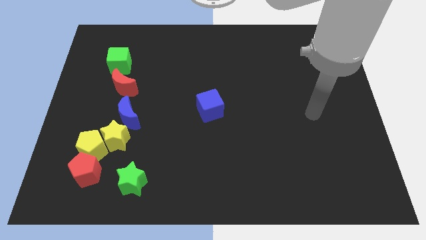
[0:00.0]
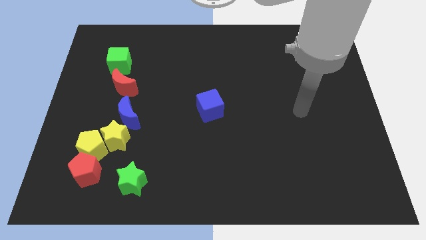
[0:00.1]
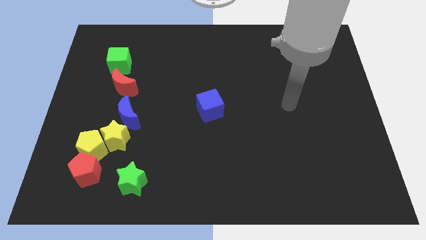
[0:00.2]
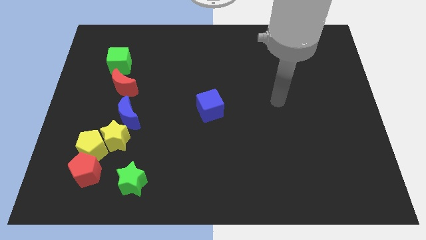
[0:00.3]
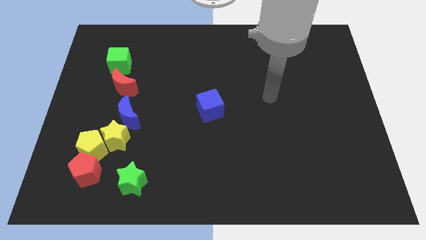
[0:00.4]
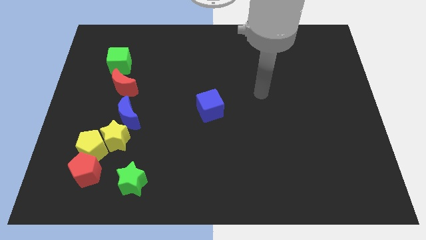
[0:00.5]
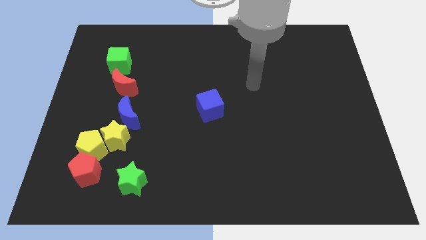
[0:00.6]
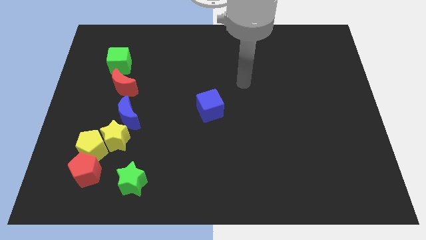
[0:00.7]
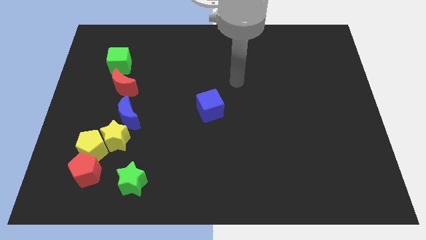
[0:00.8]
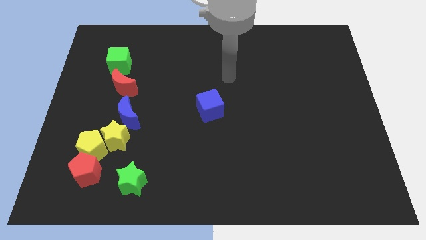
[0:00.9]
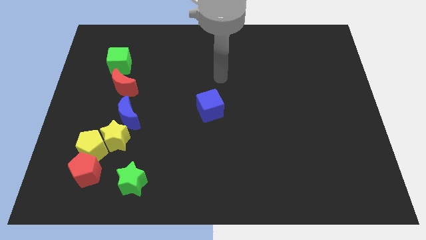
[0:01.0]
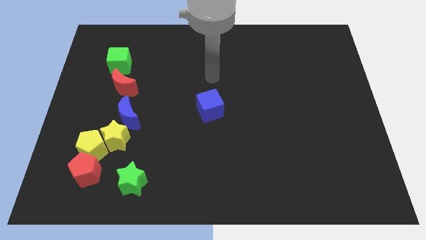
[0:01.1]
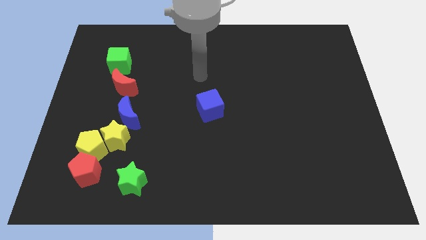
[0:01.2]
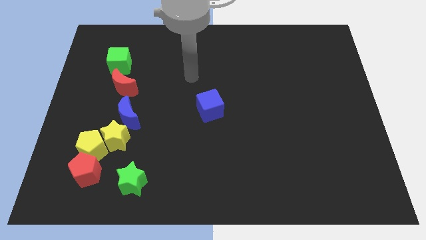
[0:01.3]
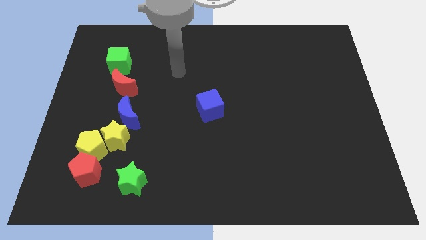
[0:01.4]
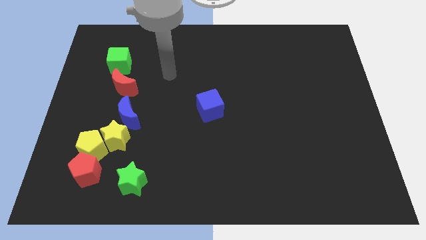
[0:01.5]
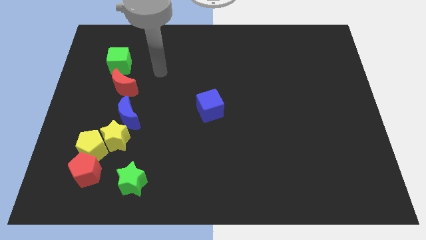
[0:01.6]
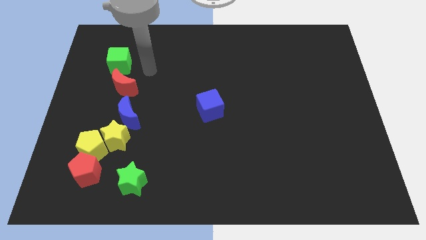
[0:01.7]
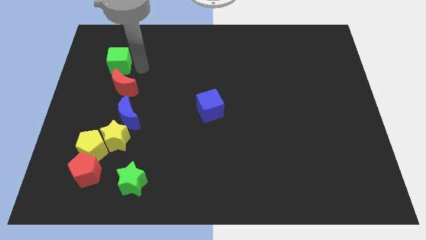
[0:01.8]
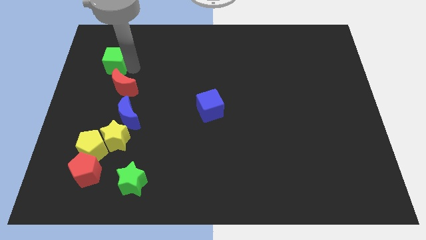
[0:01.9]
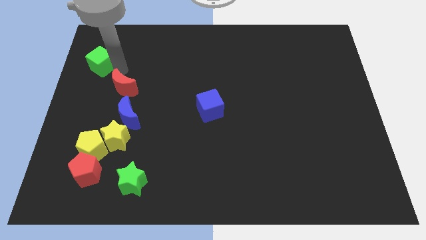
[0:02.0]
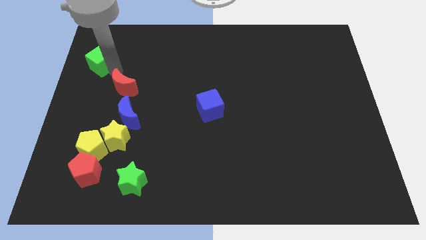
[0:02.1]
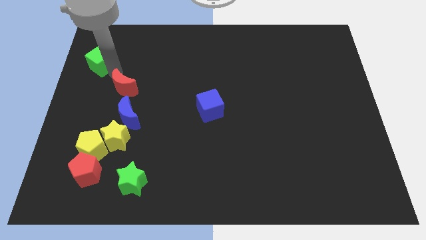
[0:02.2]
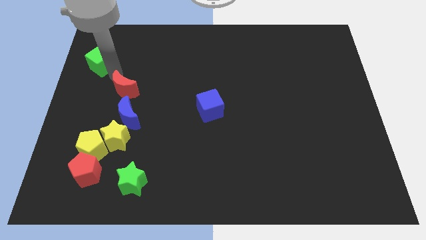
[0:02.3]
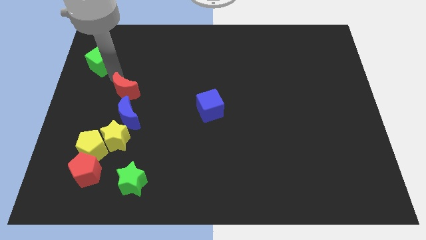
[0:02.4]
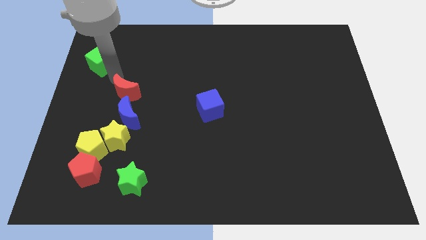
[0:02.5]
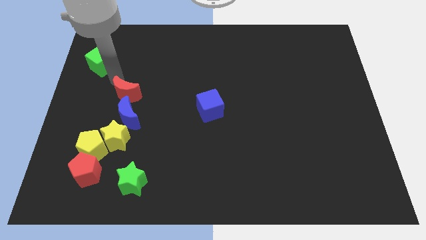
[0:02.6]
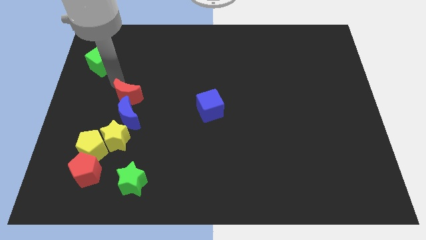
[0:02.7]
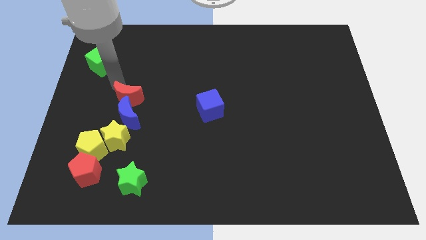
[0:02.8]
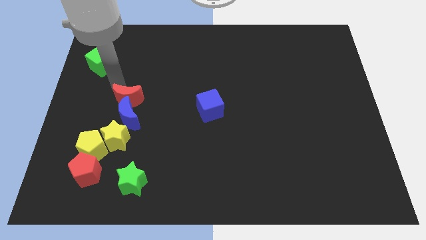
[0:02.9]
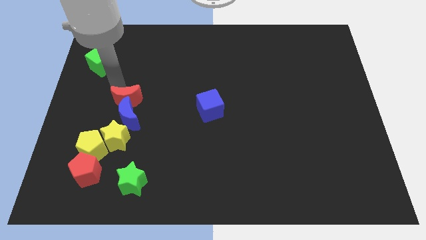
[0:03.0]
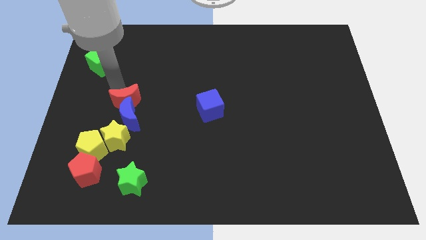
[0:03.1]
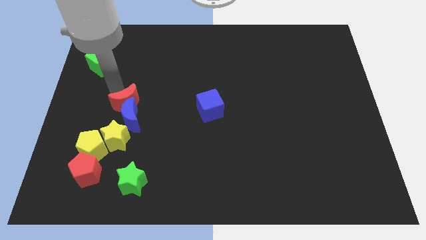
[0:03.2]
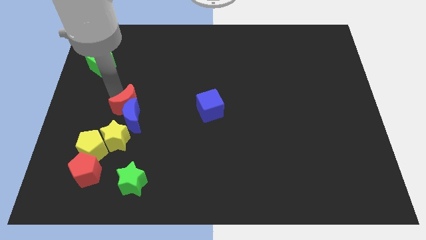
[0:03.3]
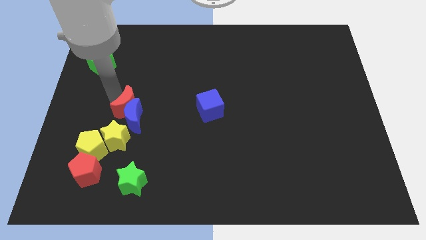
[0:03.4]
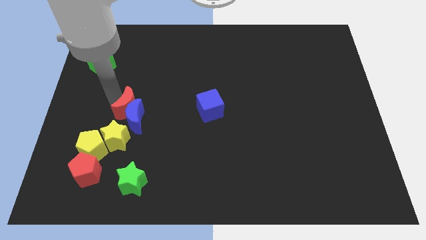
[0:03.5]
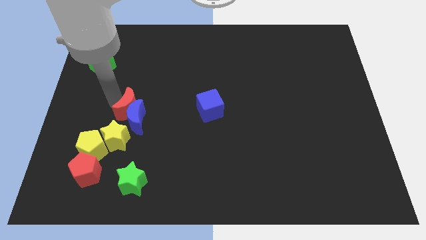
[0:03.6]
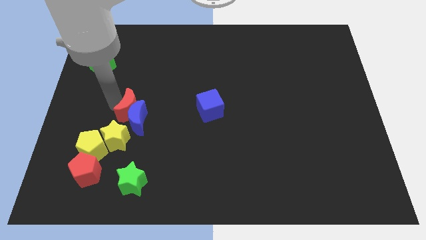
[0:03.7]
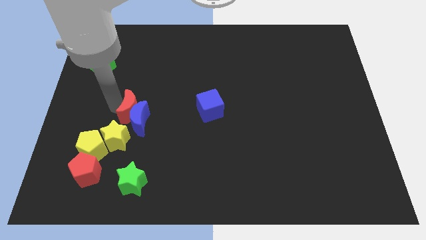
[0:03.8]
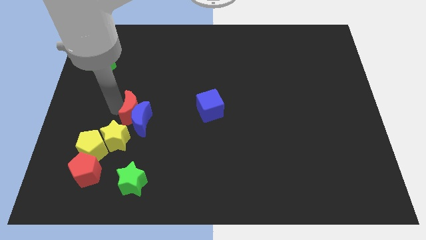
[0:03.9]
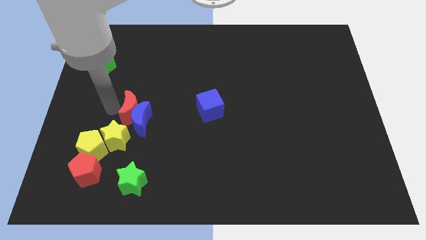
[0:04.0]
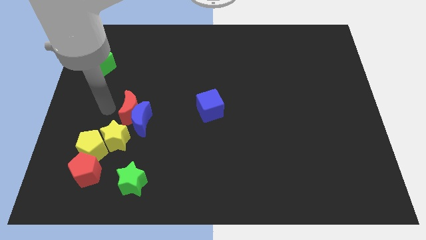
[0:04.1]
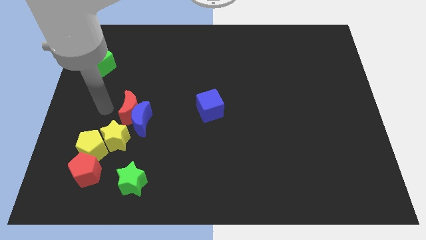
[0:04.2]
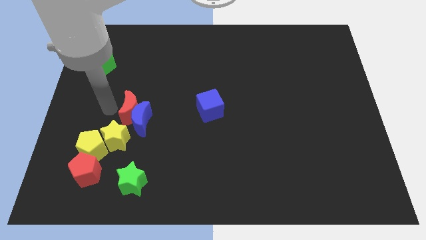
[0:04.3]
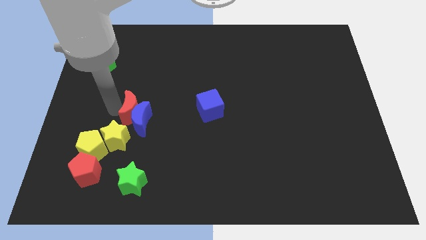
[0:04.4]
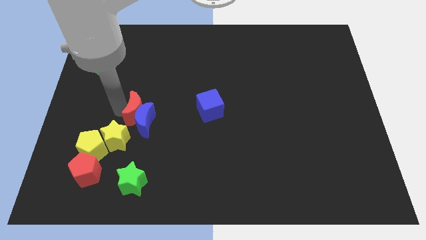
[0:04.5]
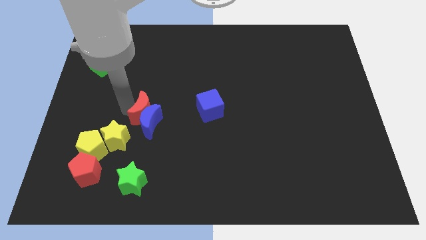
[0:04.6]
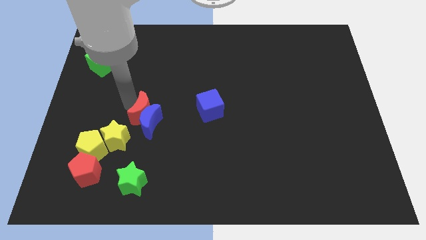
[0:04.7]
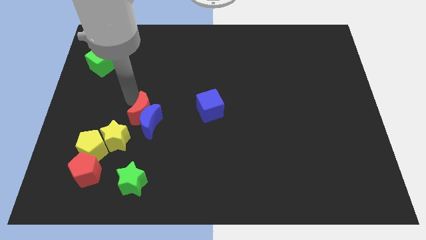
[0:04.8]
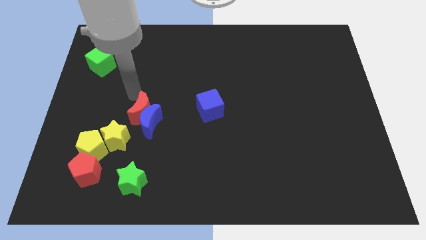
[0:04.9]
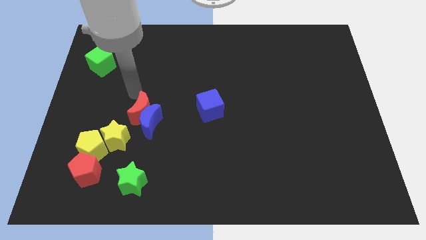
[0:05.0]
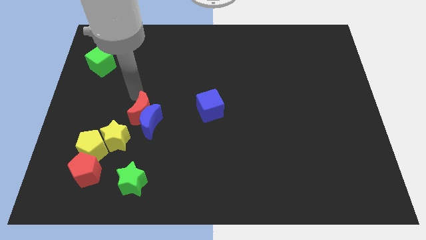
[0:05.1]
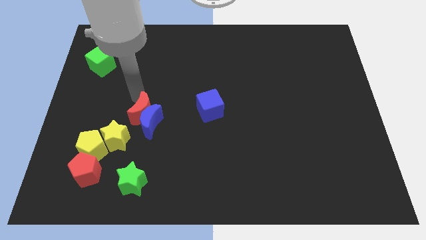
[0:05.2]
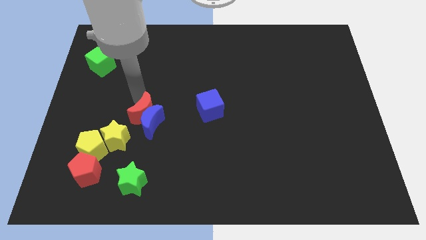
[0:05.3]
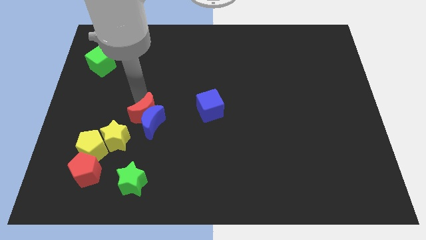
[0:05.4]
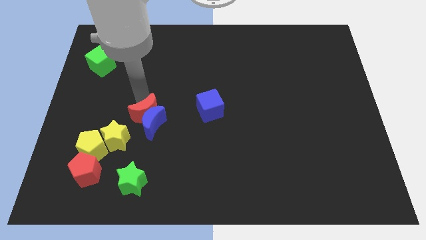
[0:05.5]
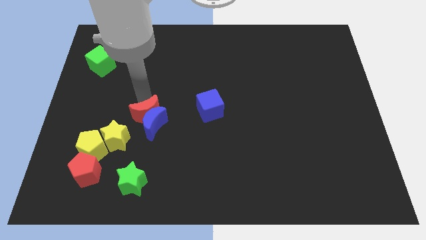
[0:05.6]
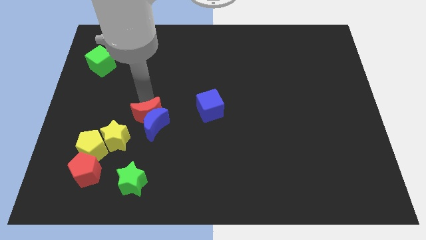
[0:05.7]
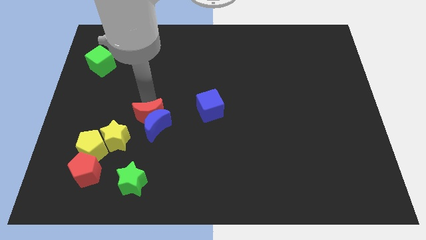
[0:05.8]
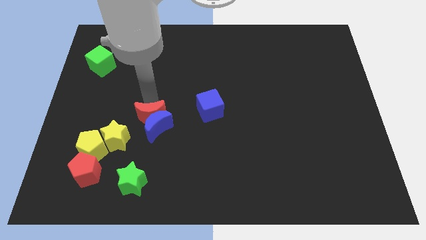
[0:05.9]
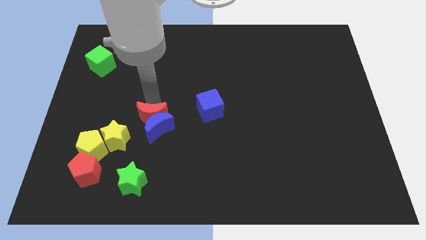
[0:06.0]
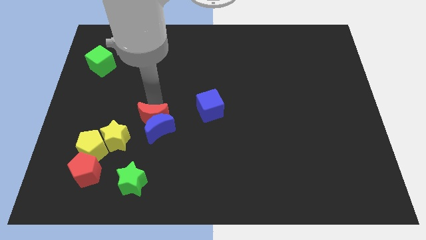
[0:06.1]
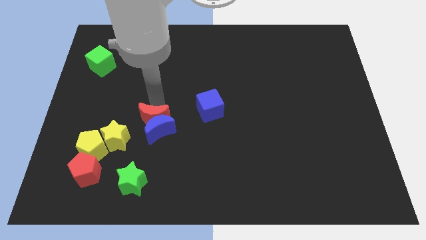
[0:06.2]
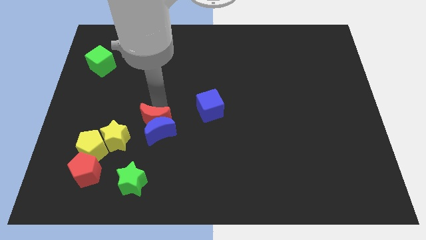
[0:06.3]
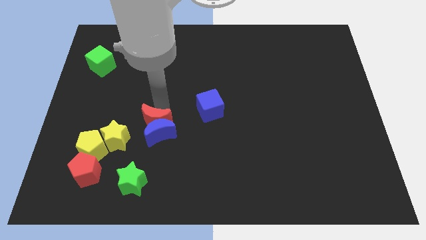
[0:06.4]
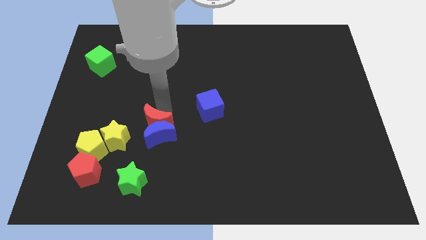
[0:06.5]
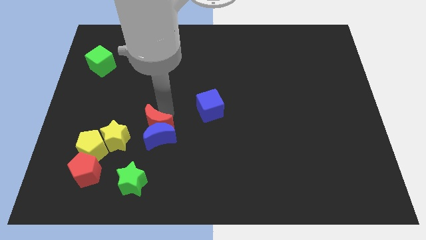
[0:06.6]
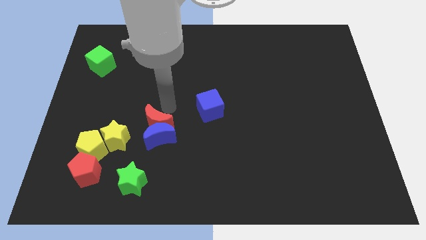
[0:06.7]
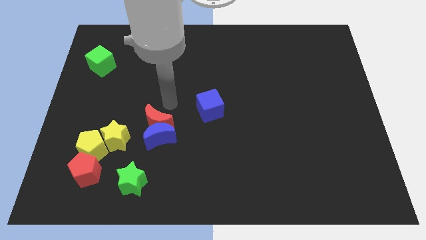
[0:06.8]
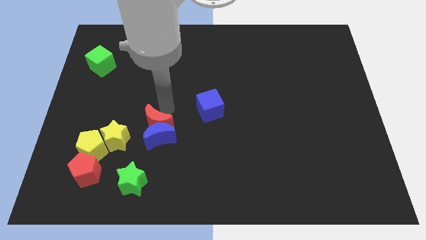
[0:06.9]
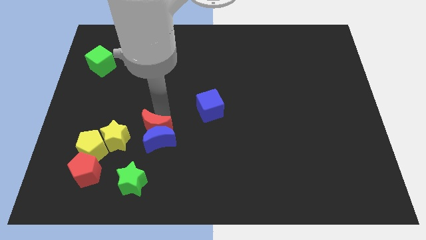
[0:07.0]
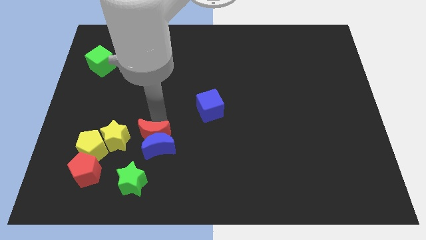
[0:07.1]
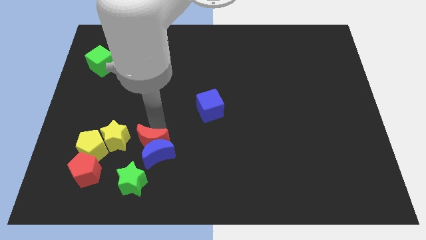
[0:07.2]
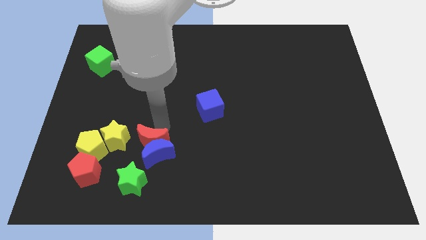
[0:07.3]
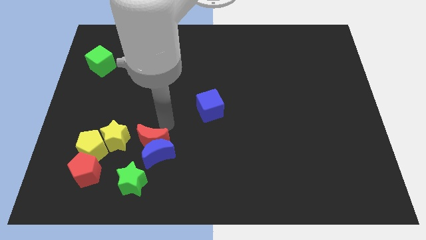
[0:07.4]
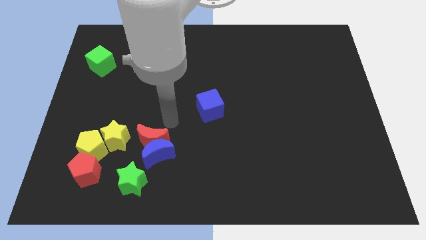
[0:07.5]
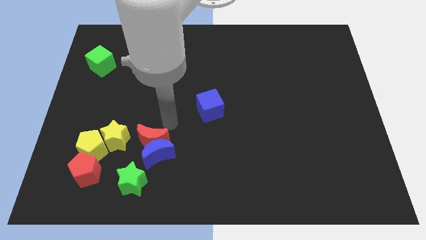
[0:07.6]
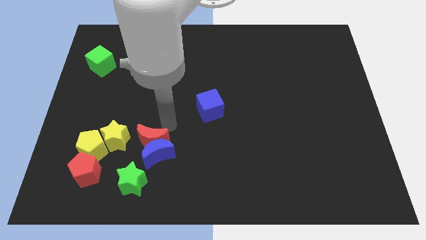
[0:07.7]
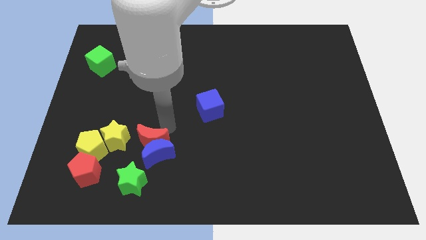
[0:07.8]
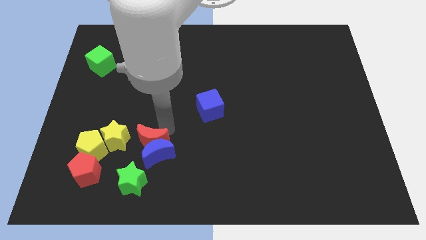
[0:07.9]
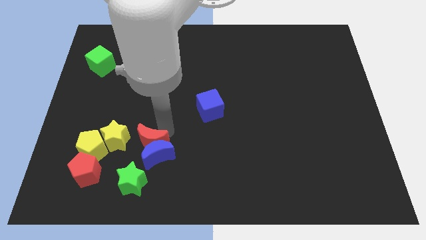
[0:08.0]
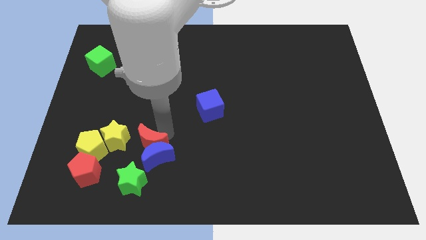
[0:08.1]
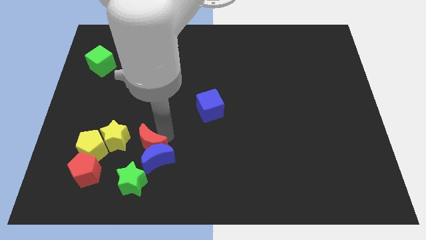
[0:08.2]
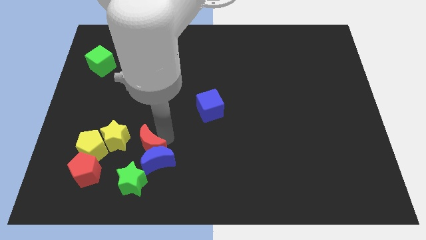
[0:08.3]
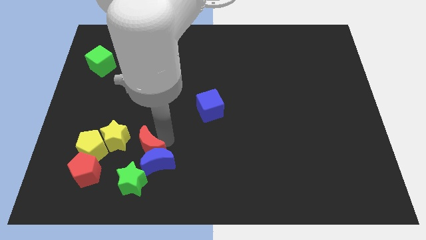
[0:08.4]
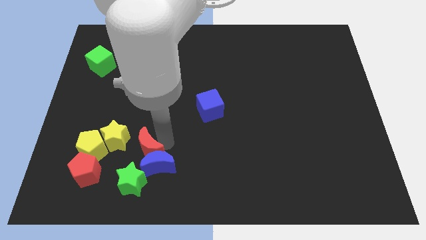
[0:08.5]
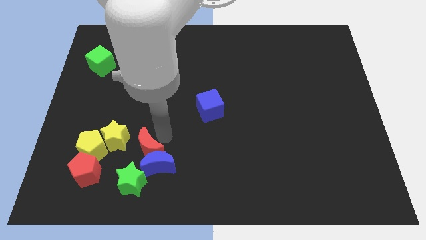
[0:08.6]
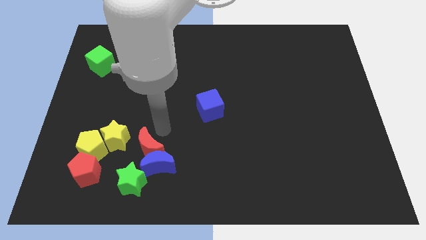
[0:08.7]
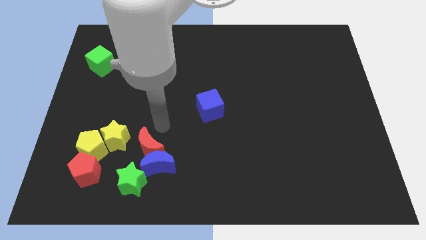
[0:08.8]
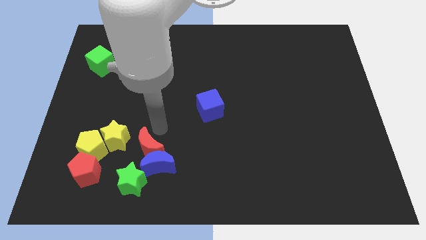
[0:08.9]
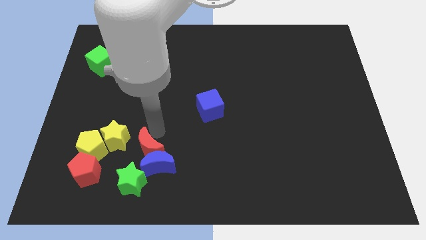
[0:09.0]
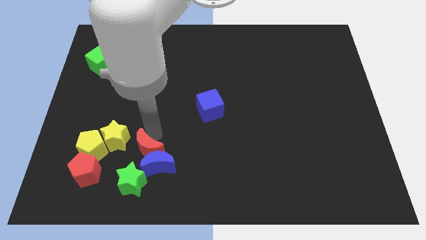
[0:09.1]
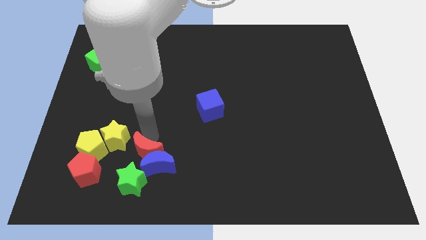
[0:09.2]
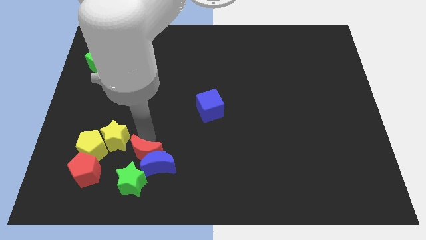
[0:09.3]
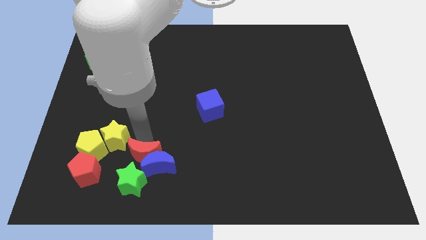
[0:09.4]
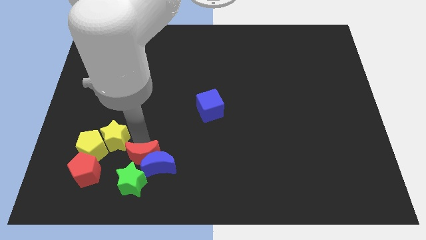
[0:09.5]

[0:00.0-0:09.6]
slide the red moon next to the green star
